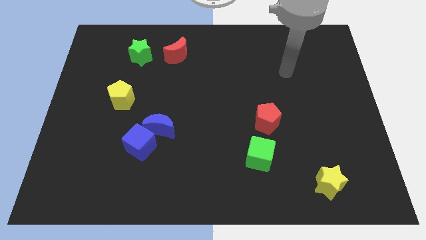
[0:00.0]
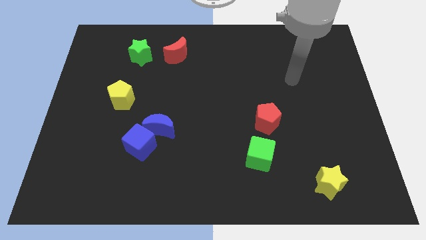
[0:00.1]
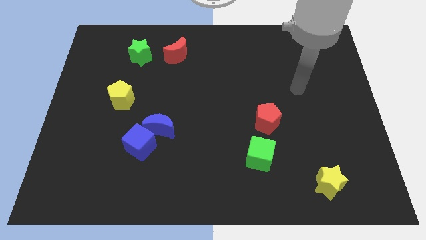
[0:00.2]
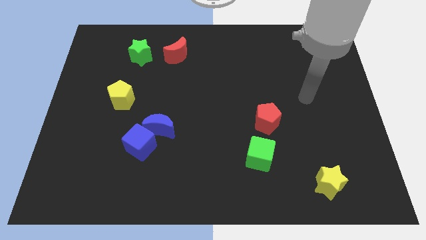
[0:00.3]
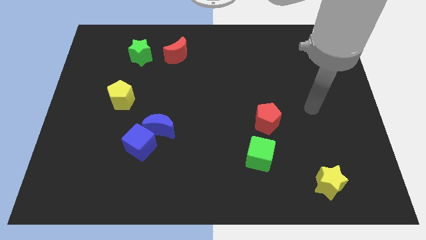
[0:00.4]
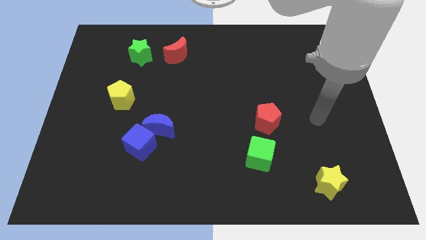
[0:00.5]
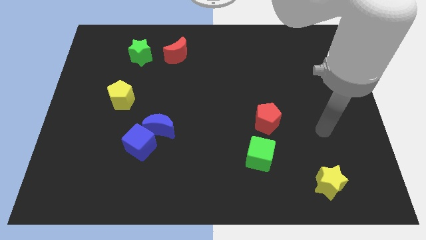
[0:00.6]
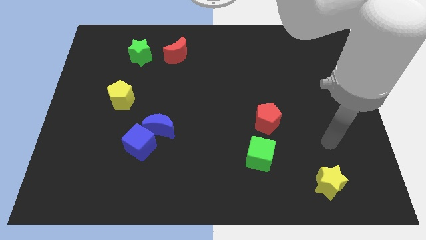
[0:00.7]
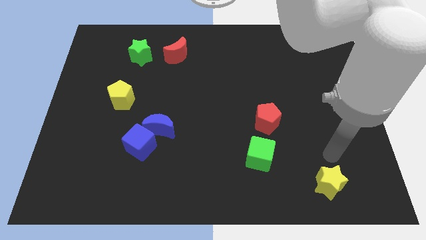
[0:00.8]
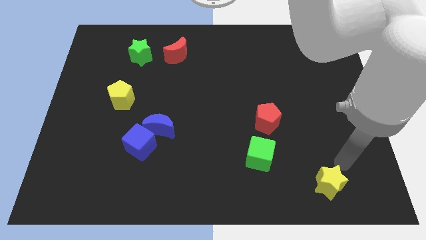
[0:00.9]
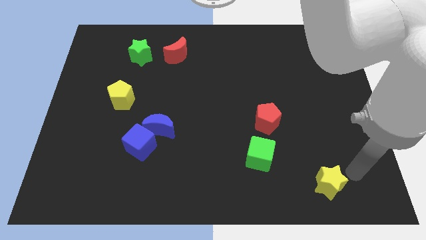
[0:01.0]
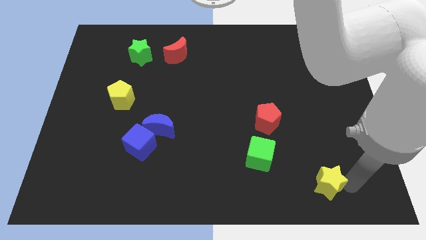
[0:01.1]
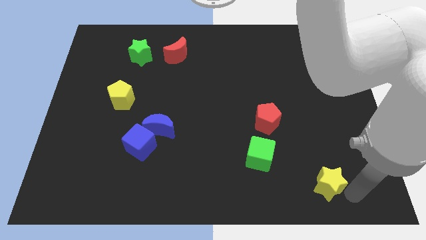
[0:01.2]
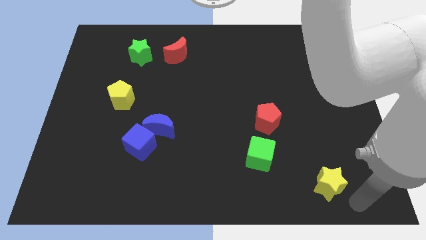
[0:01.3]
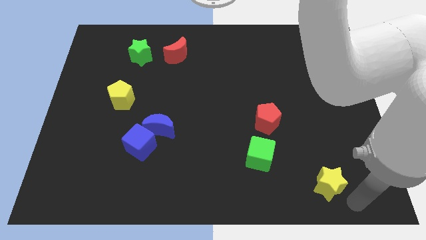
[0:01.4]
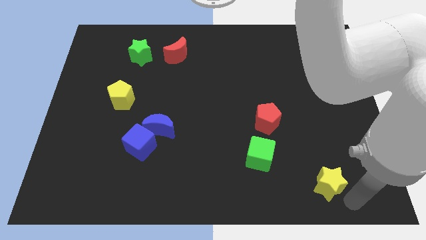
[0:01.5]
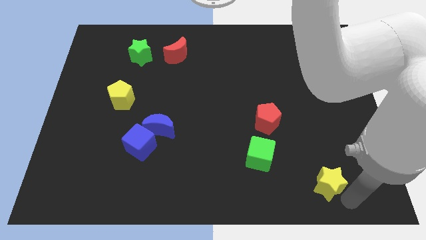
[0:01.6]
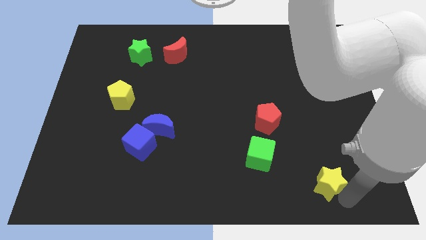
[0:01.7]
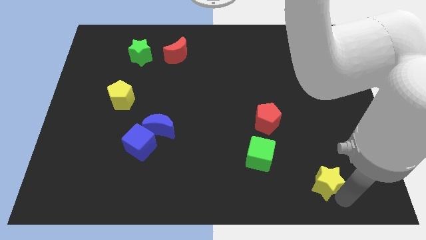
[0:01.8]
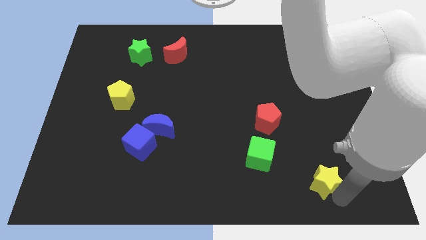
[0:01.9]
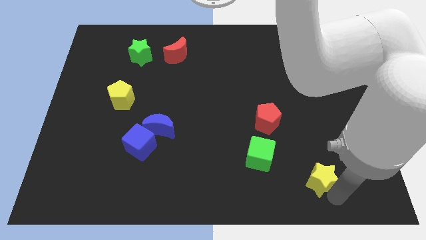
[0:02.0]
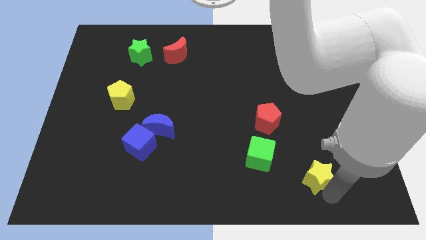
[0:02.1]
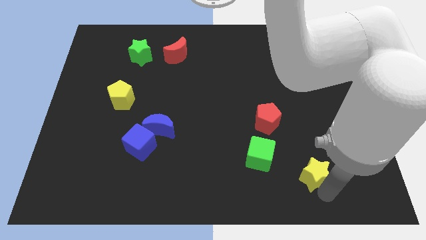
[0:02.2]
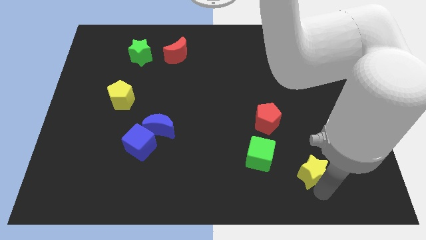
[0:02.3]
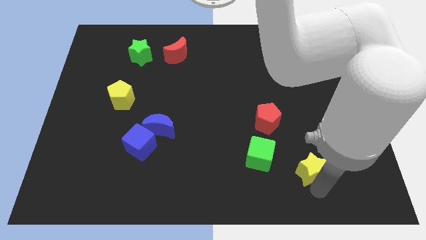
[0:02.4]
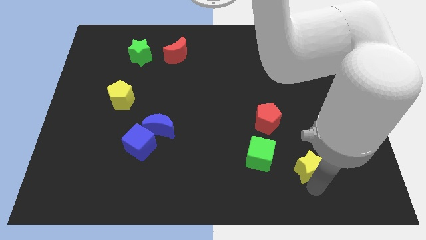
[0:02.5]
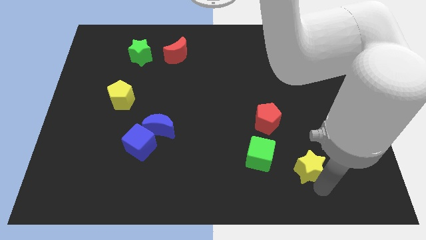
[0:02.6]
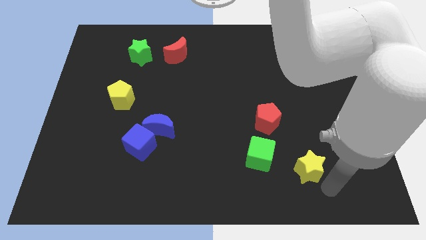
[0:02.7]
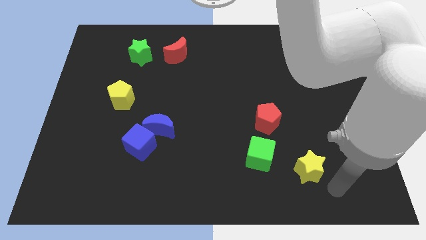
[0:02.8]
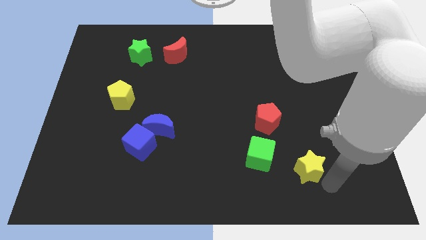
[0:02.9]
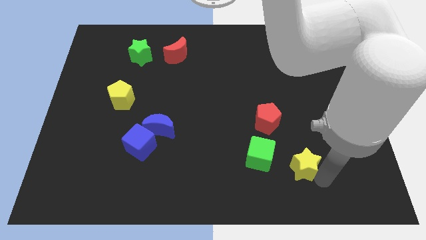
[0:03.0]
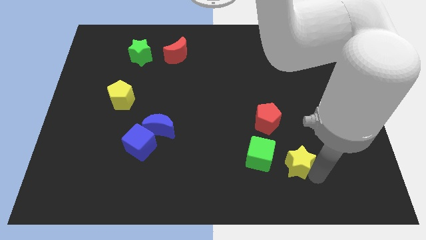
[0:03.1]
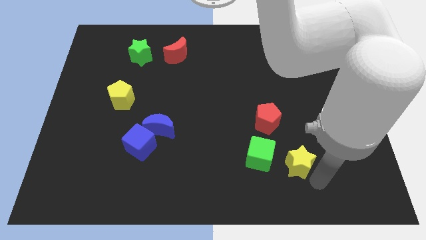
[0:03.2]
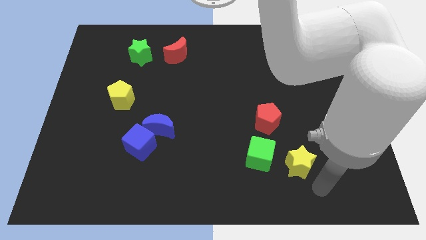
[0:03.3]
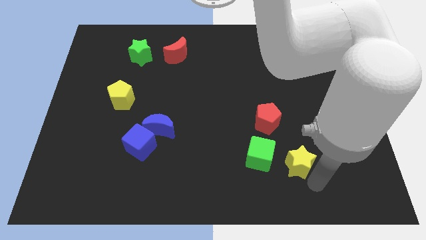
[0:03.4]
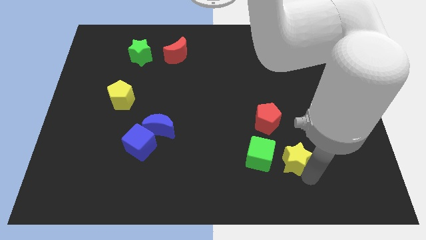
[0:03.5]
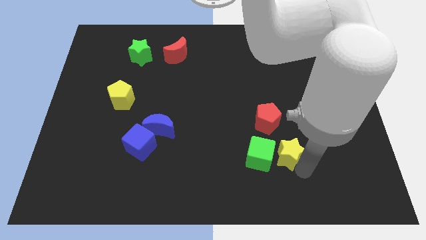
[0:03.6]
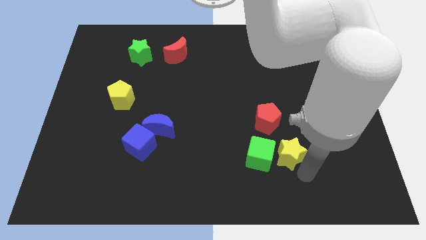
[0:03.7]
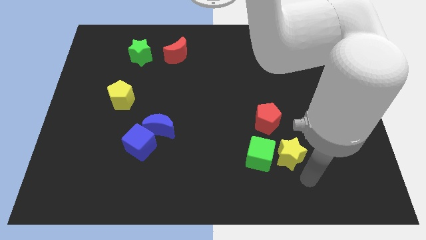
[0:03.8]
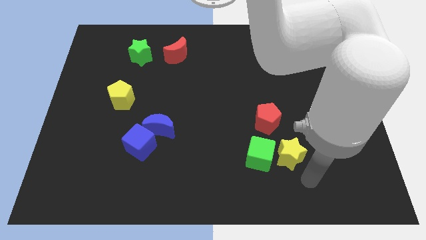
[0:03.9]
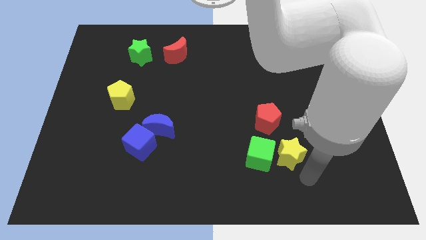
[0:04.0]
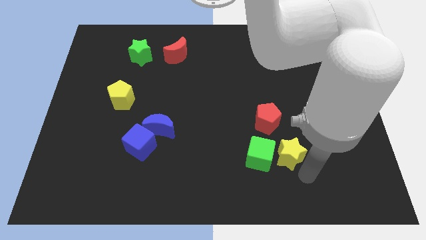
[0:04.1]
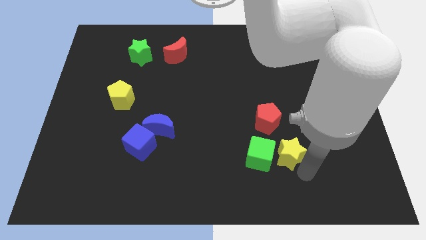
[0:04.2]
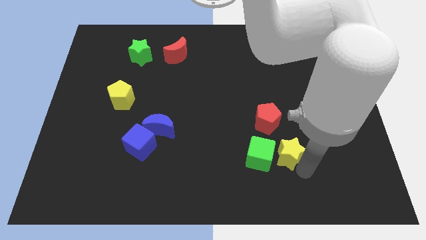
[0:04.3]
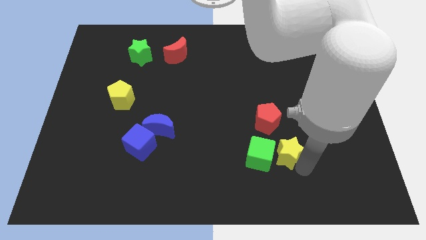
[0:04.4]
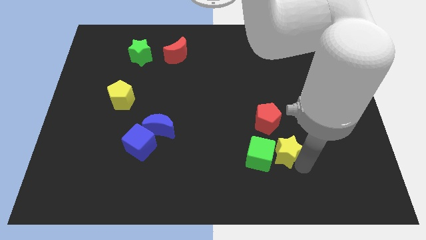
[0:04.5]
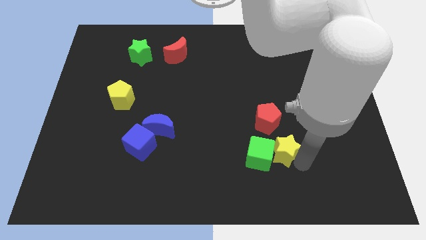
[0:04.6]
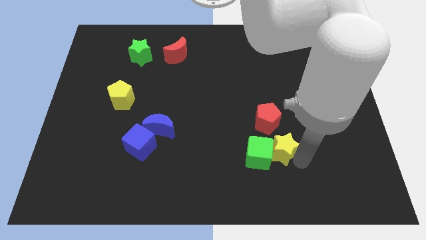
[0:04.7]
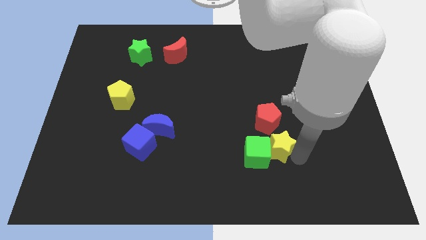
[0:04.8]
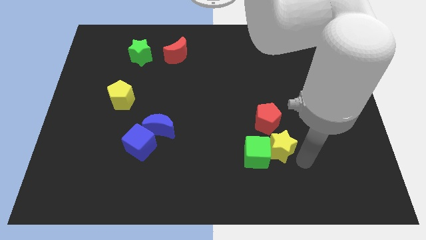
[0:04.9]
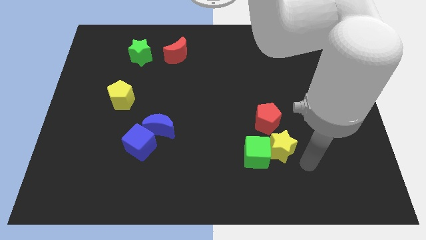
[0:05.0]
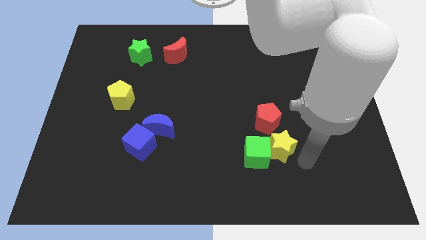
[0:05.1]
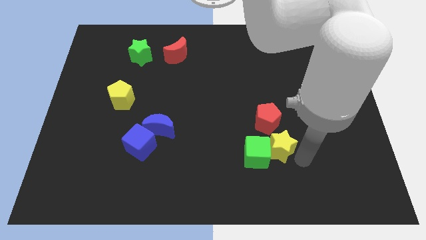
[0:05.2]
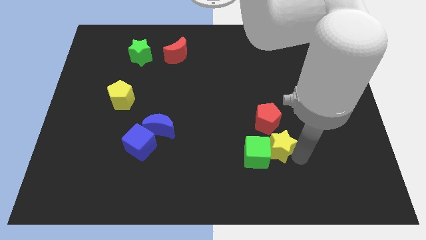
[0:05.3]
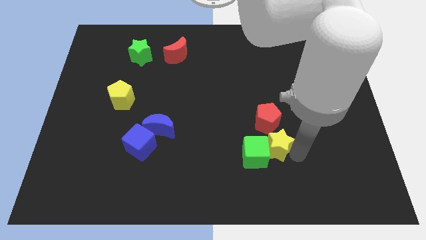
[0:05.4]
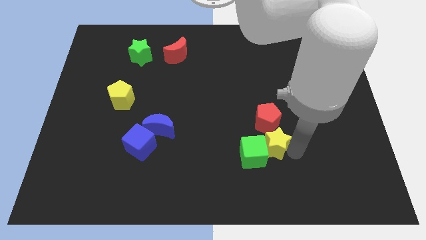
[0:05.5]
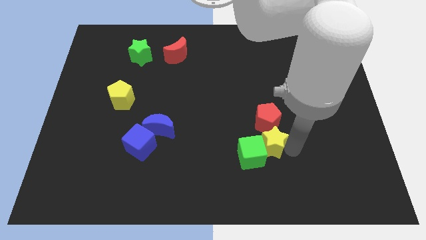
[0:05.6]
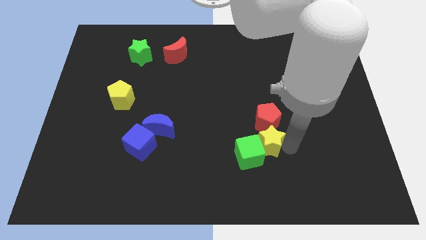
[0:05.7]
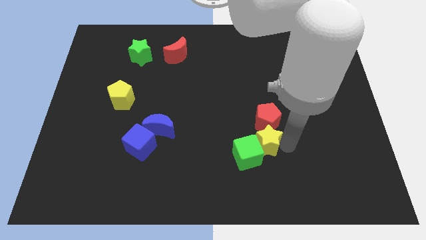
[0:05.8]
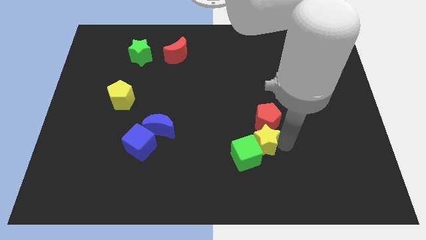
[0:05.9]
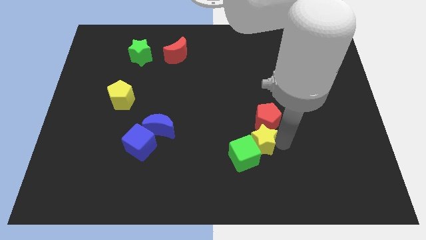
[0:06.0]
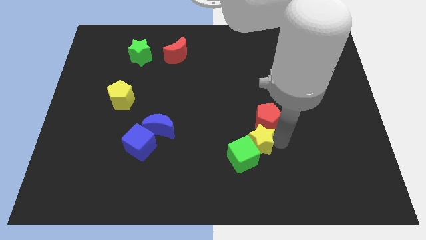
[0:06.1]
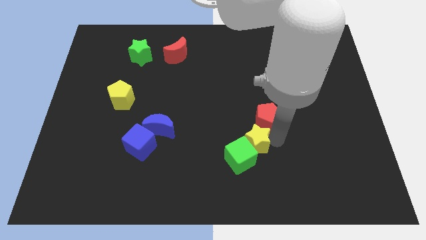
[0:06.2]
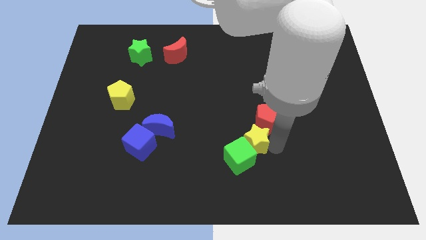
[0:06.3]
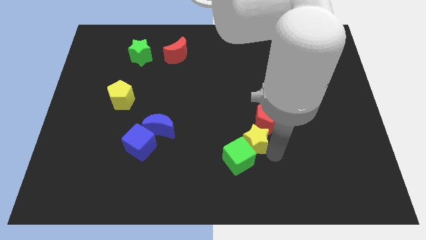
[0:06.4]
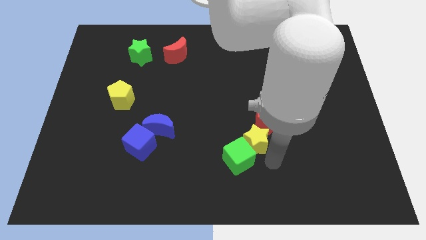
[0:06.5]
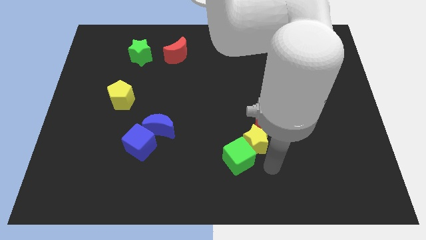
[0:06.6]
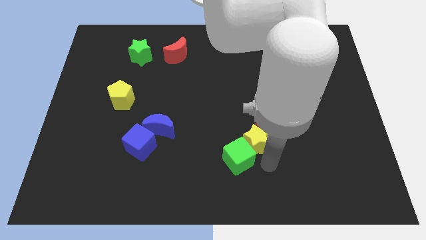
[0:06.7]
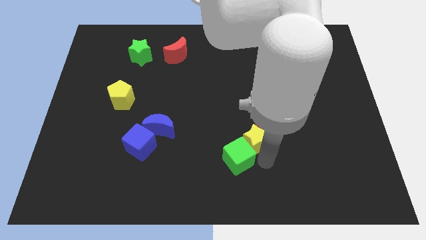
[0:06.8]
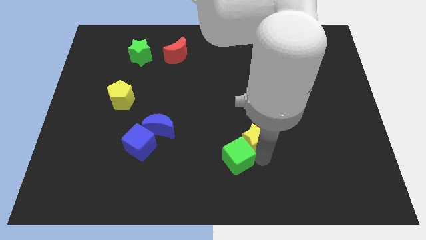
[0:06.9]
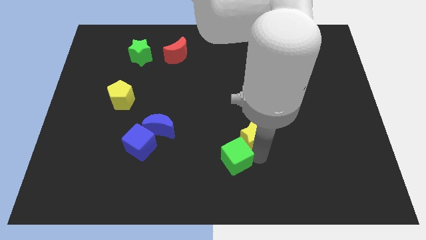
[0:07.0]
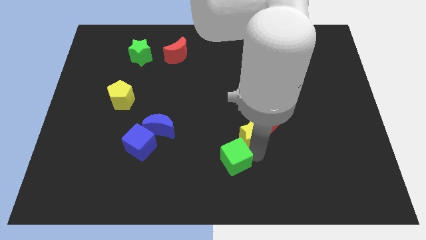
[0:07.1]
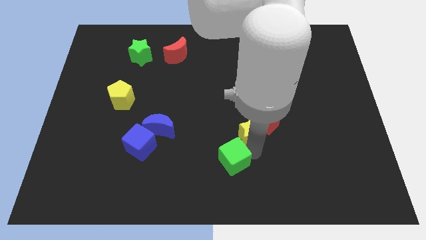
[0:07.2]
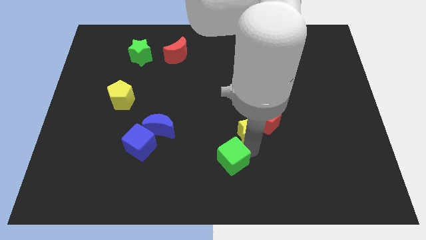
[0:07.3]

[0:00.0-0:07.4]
put the yellow star to the middle
